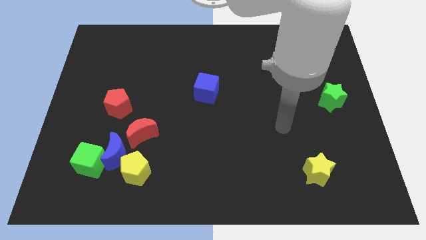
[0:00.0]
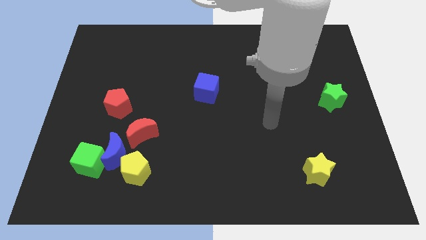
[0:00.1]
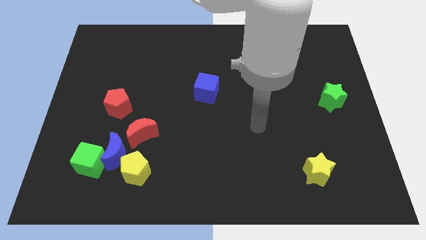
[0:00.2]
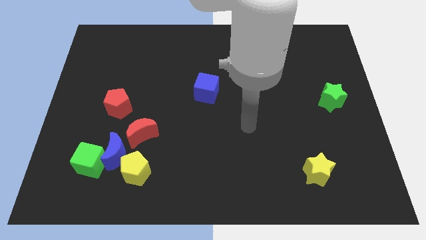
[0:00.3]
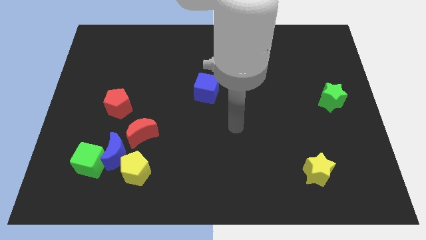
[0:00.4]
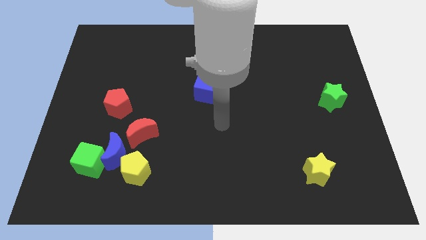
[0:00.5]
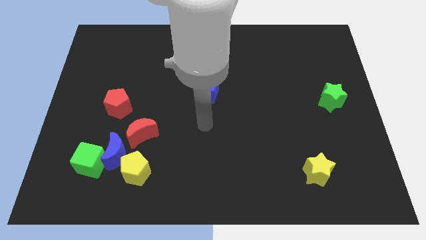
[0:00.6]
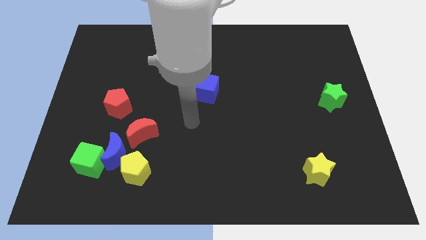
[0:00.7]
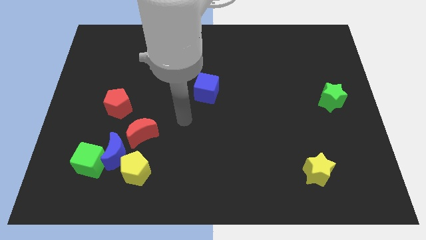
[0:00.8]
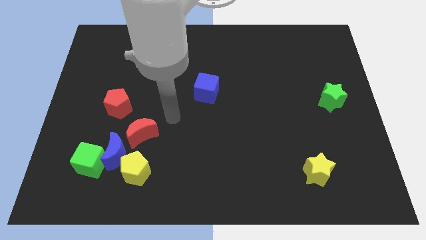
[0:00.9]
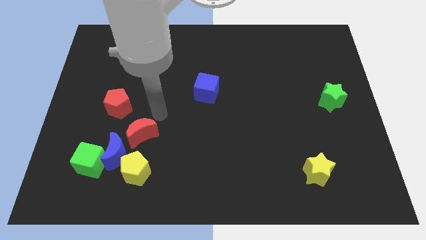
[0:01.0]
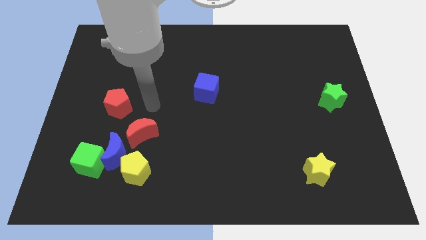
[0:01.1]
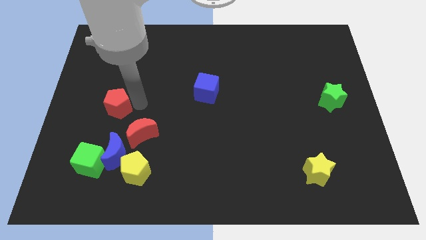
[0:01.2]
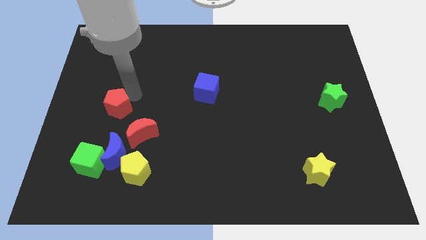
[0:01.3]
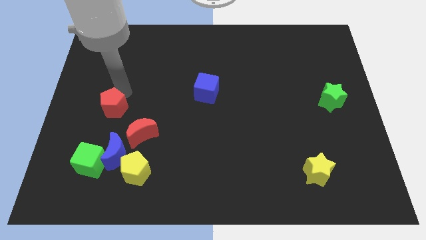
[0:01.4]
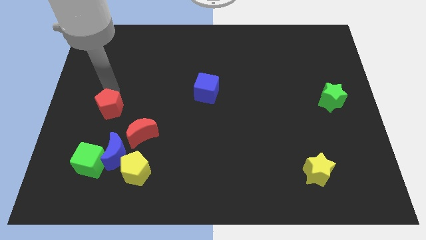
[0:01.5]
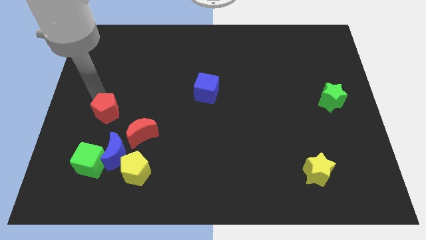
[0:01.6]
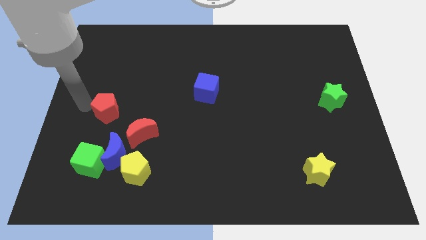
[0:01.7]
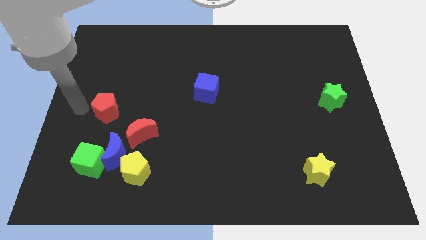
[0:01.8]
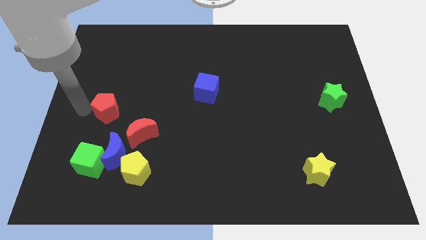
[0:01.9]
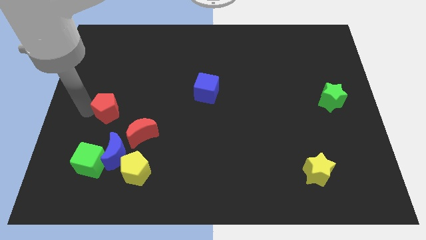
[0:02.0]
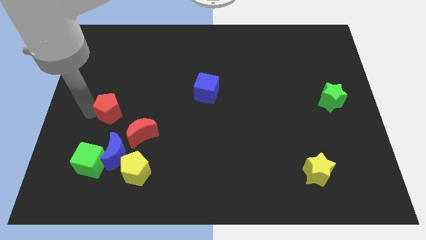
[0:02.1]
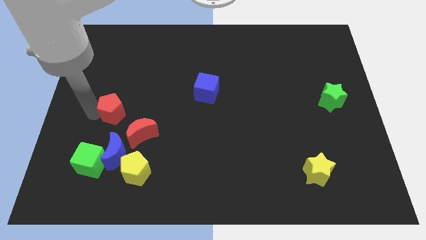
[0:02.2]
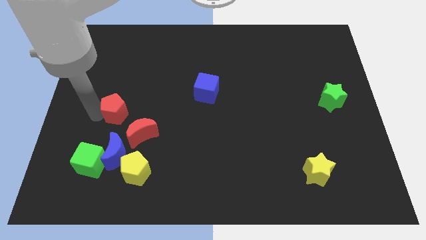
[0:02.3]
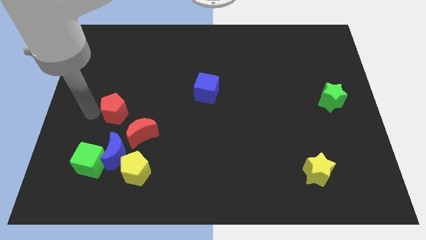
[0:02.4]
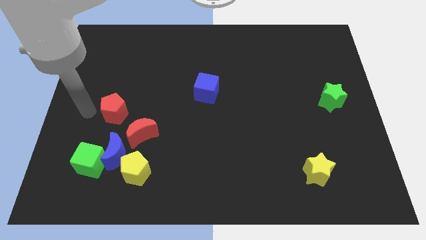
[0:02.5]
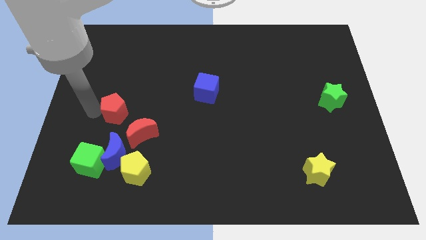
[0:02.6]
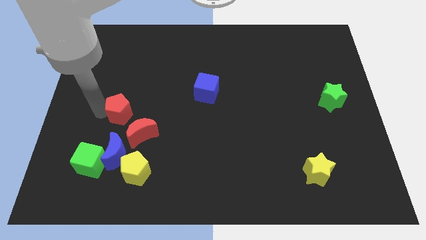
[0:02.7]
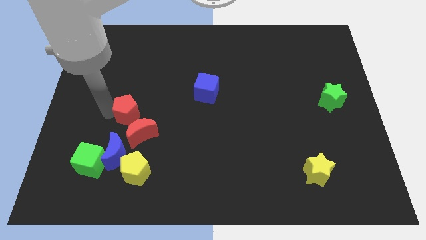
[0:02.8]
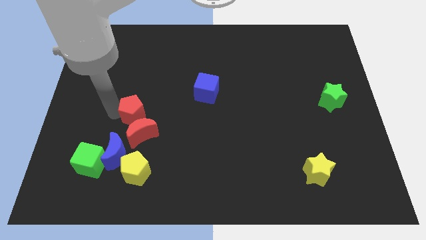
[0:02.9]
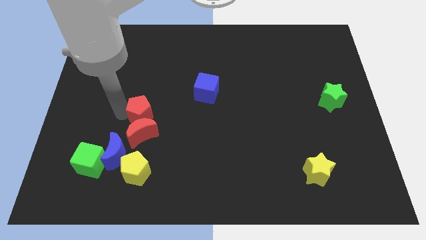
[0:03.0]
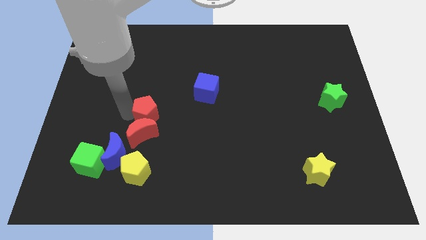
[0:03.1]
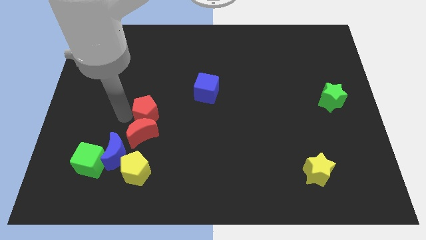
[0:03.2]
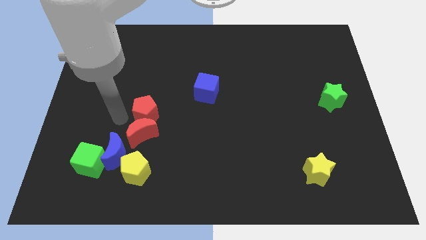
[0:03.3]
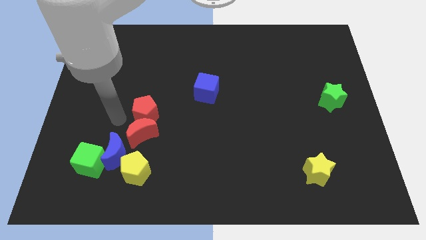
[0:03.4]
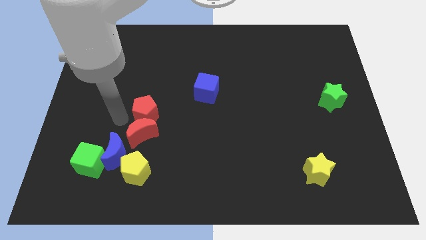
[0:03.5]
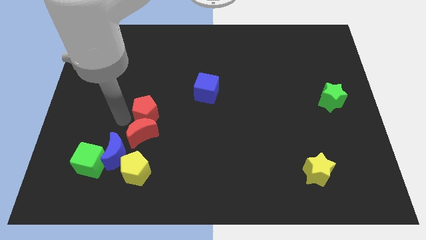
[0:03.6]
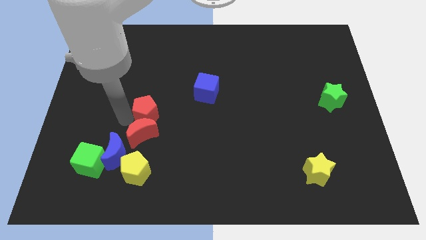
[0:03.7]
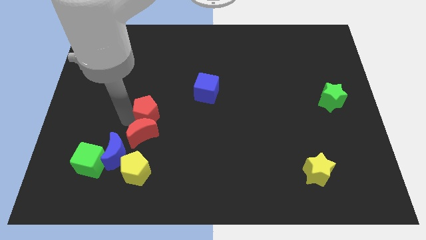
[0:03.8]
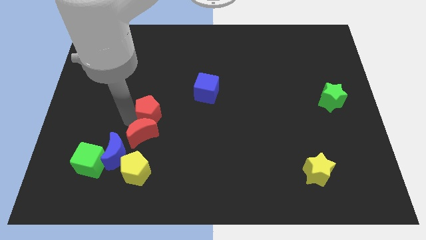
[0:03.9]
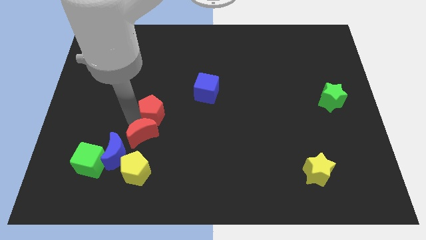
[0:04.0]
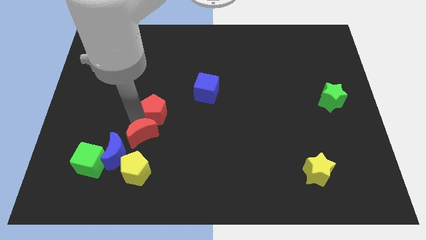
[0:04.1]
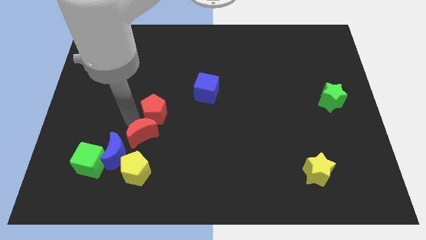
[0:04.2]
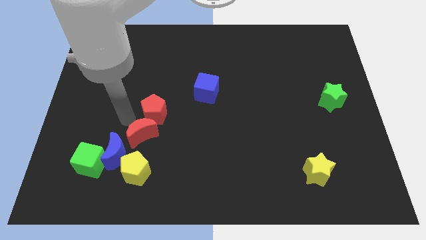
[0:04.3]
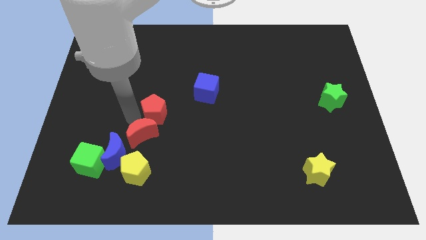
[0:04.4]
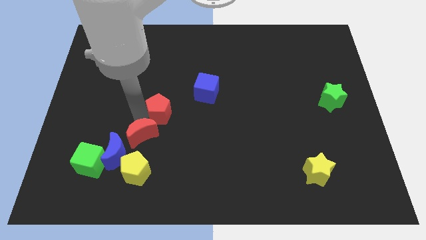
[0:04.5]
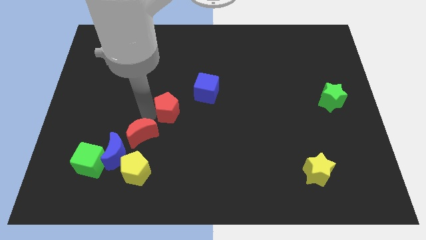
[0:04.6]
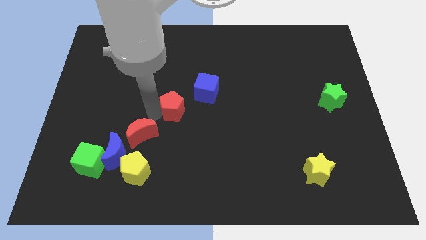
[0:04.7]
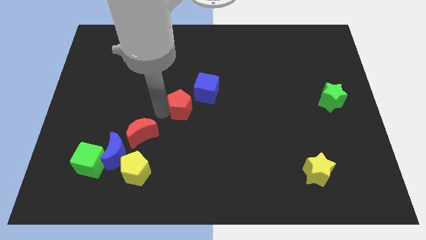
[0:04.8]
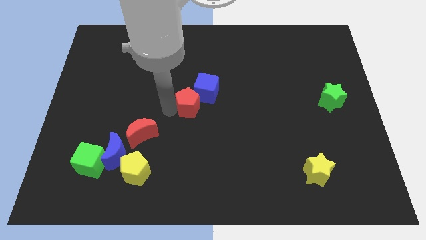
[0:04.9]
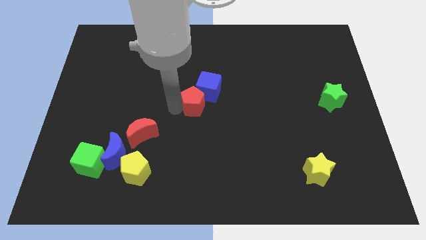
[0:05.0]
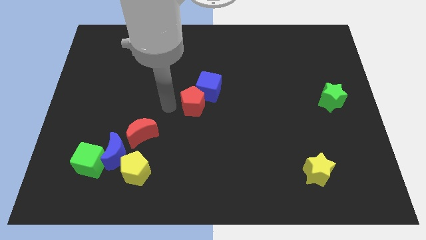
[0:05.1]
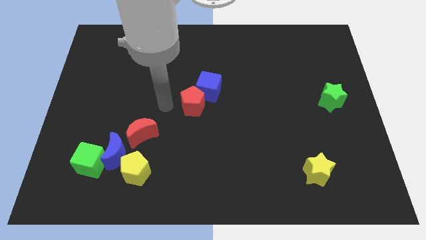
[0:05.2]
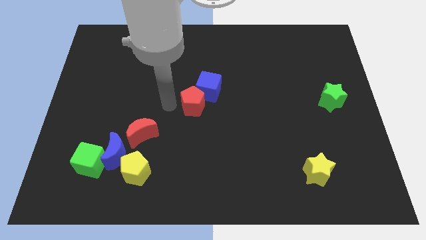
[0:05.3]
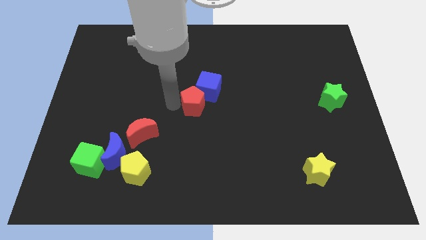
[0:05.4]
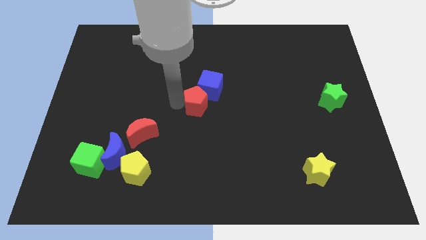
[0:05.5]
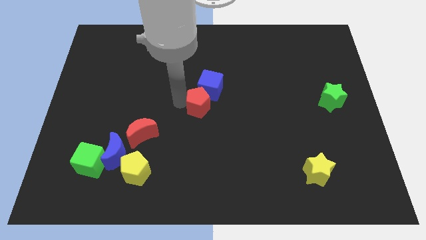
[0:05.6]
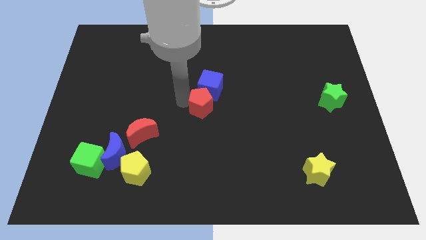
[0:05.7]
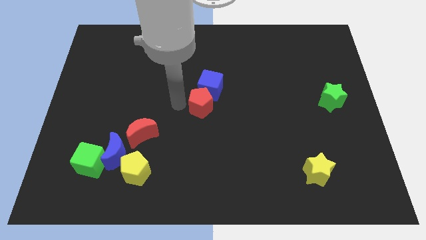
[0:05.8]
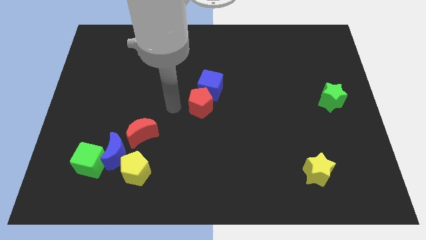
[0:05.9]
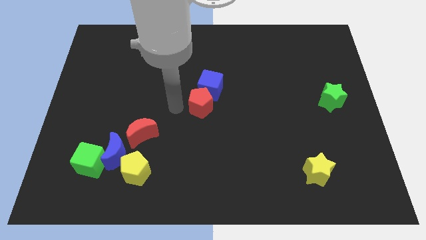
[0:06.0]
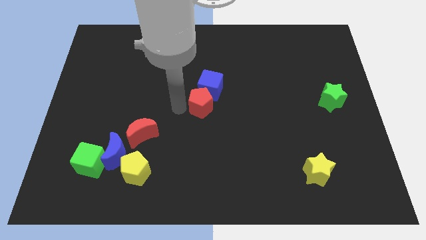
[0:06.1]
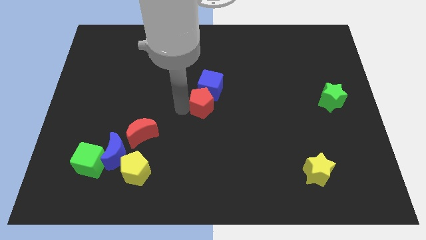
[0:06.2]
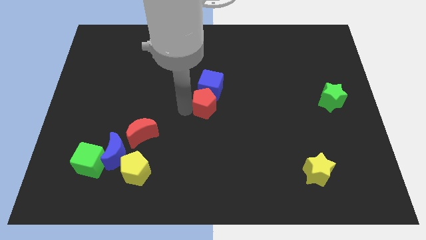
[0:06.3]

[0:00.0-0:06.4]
move the red pentagon to the right

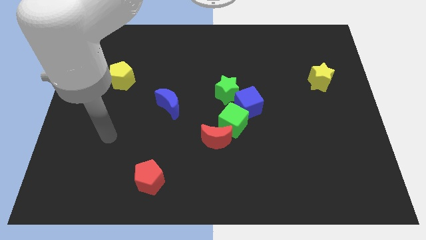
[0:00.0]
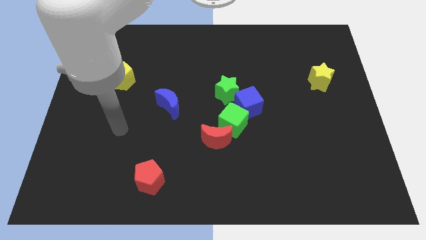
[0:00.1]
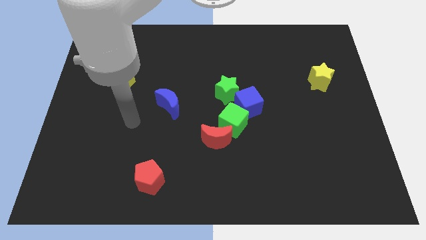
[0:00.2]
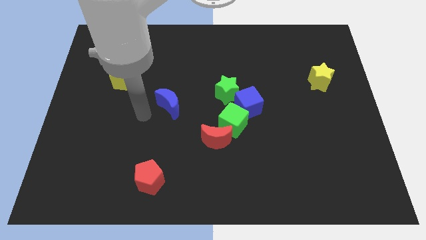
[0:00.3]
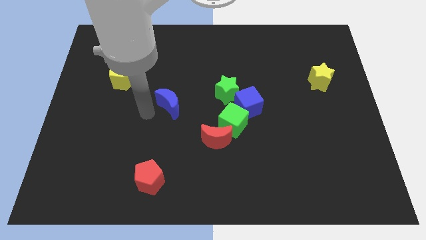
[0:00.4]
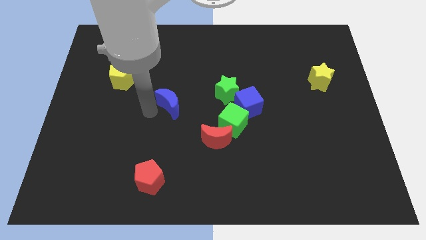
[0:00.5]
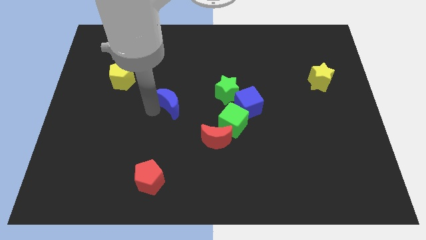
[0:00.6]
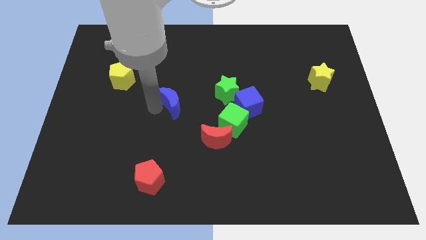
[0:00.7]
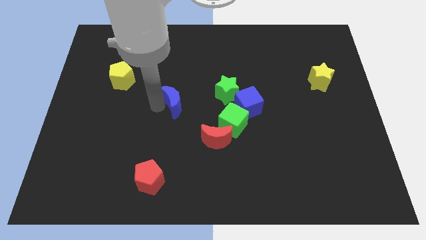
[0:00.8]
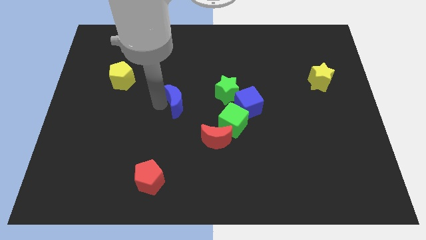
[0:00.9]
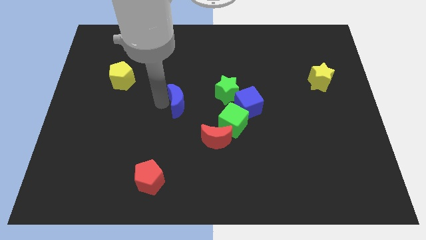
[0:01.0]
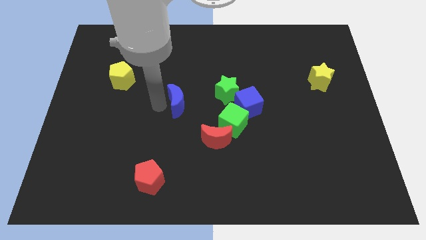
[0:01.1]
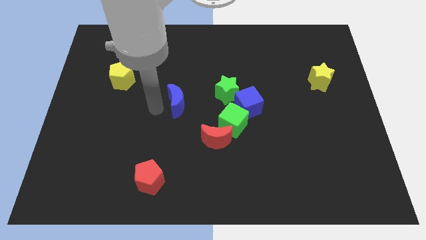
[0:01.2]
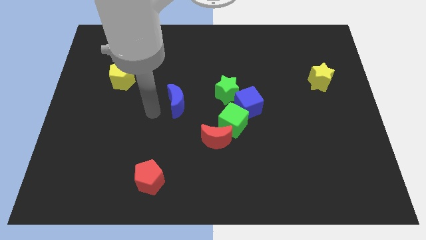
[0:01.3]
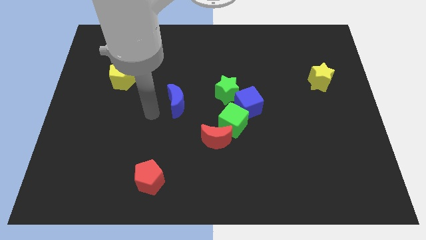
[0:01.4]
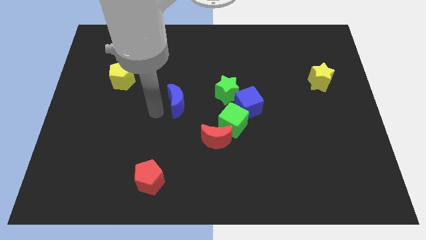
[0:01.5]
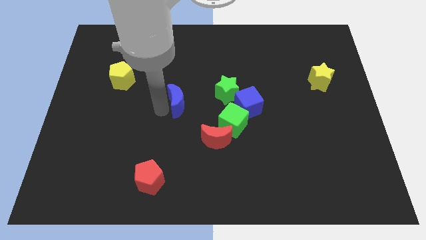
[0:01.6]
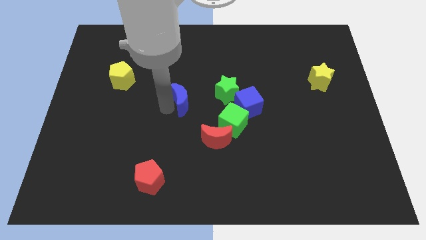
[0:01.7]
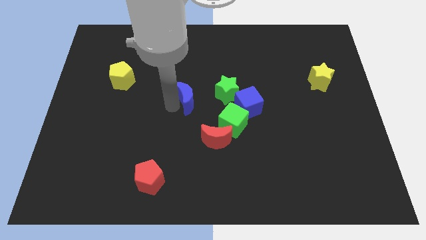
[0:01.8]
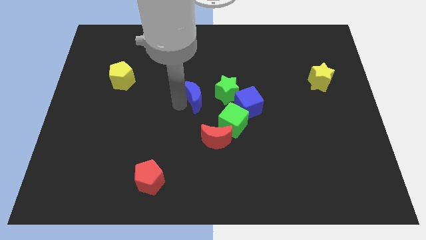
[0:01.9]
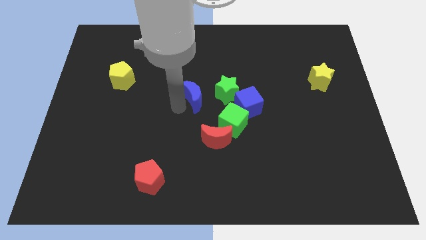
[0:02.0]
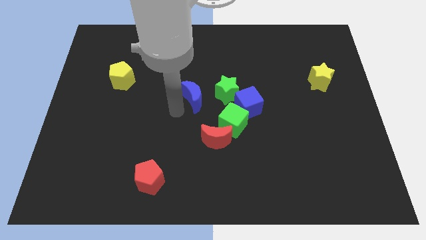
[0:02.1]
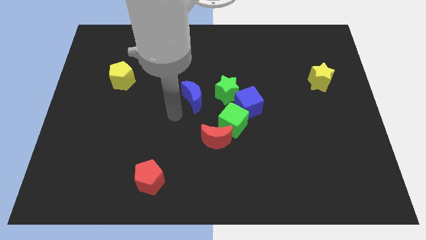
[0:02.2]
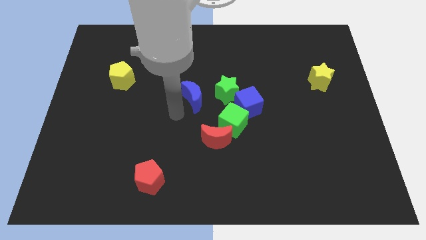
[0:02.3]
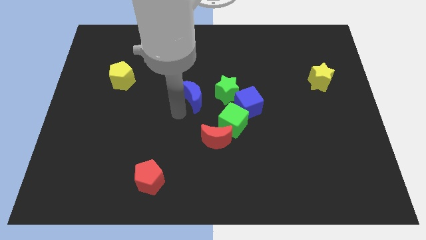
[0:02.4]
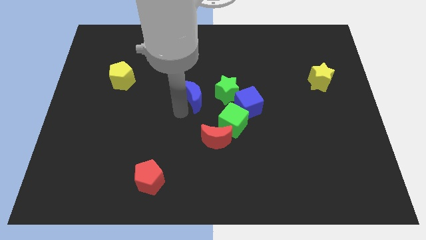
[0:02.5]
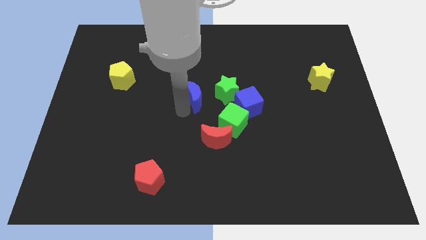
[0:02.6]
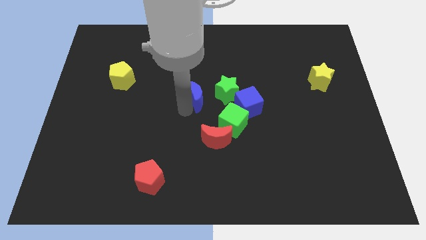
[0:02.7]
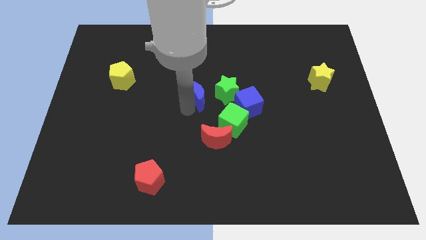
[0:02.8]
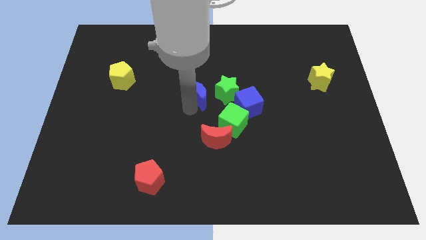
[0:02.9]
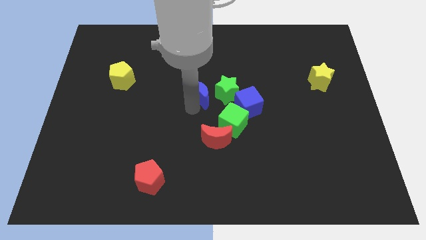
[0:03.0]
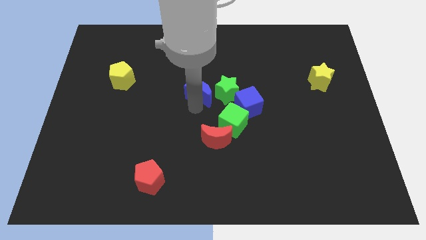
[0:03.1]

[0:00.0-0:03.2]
slide the blue moon upwards and then right a bit
